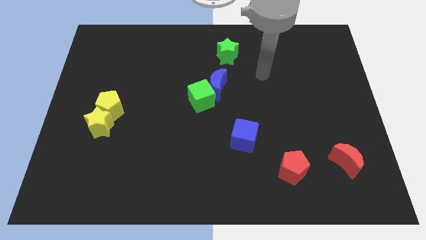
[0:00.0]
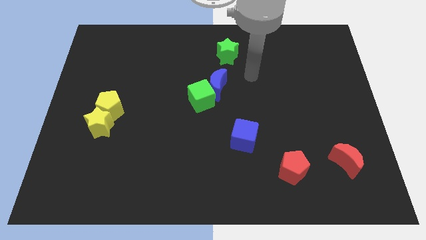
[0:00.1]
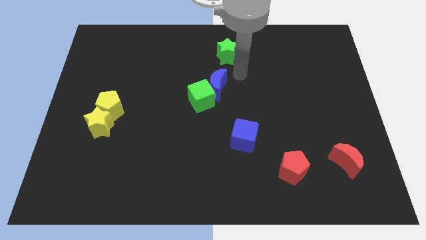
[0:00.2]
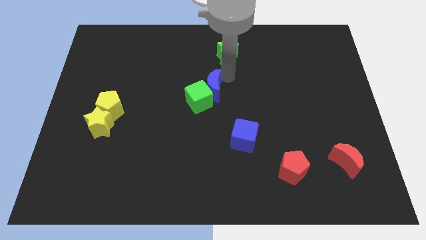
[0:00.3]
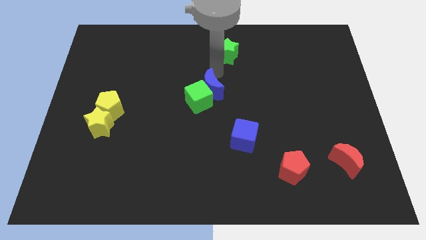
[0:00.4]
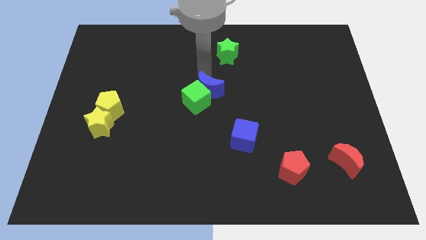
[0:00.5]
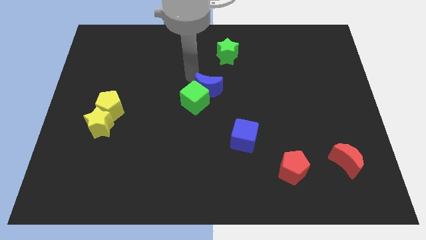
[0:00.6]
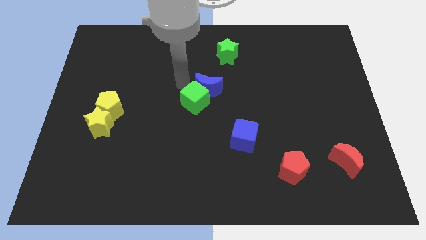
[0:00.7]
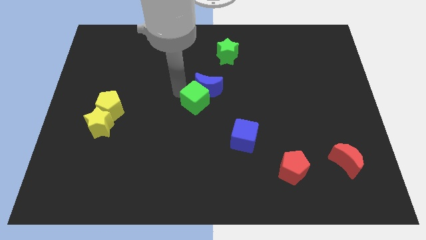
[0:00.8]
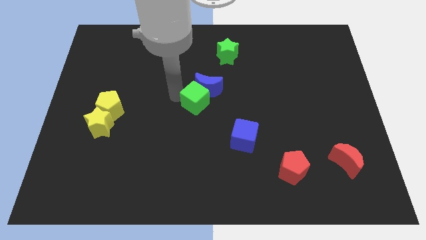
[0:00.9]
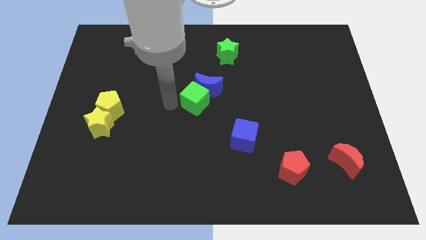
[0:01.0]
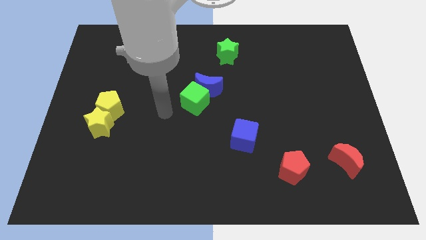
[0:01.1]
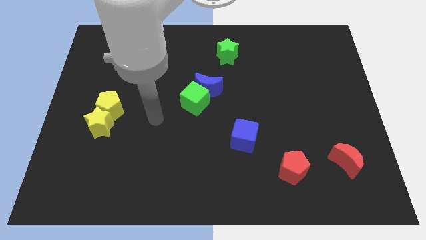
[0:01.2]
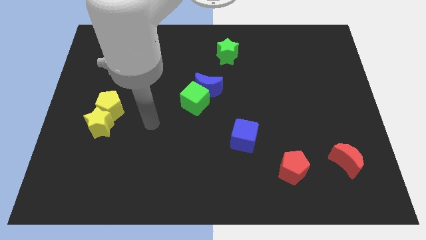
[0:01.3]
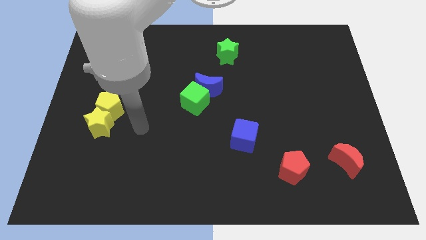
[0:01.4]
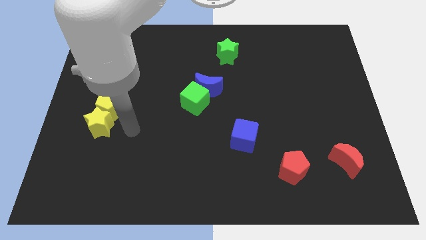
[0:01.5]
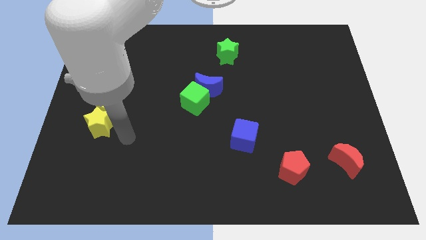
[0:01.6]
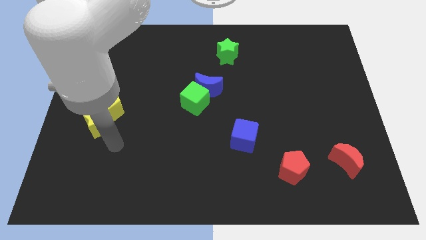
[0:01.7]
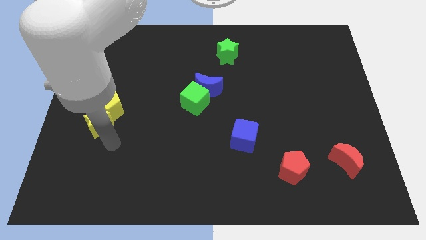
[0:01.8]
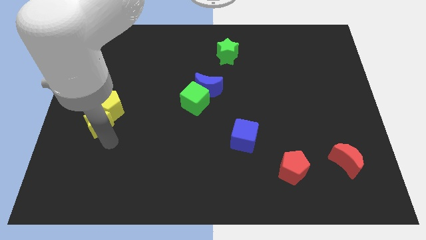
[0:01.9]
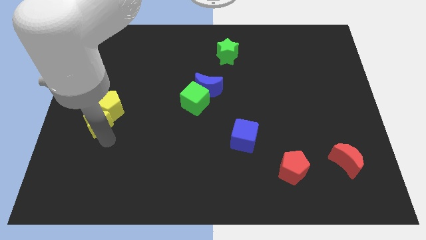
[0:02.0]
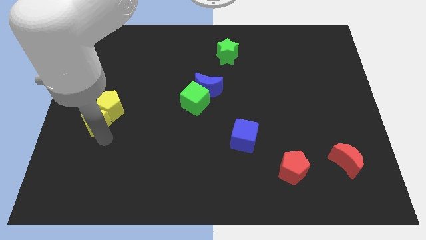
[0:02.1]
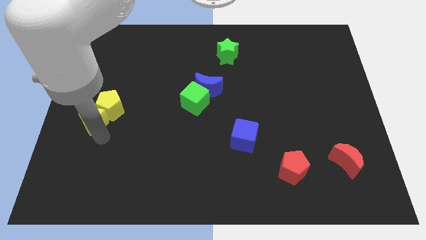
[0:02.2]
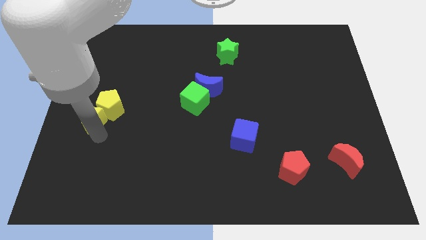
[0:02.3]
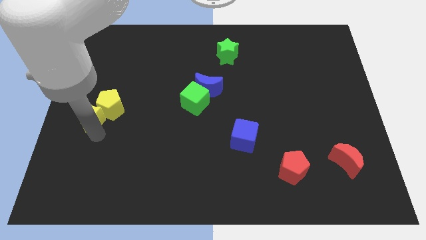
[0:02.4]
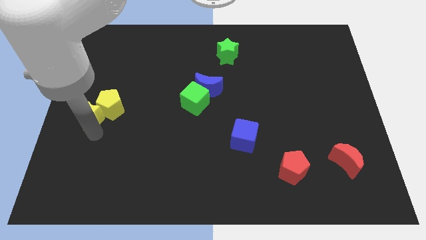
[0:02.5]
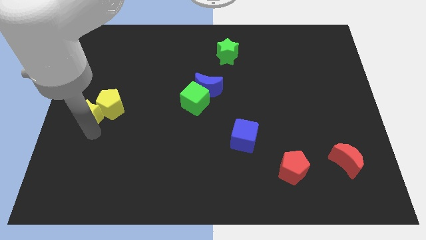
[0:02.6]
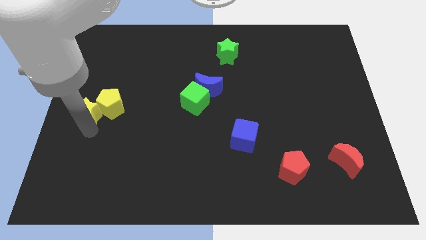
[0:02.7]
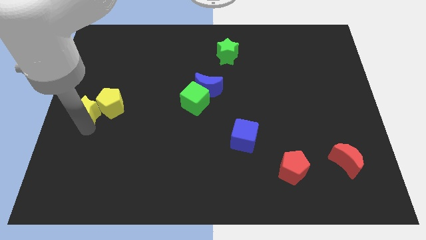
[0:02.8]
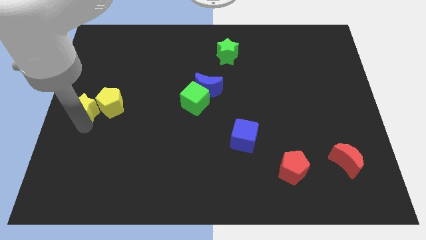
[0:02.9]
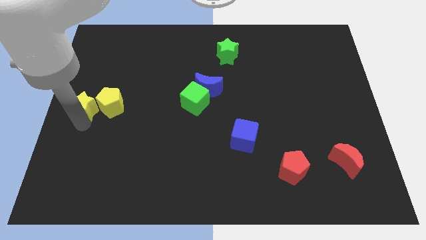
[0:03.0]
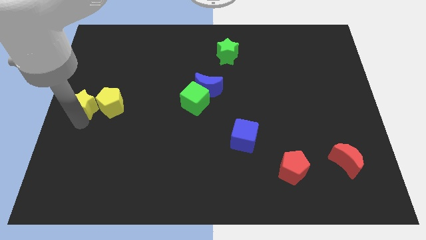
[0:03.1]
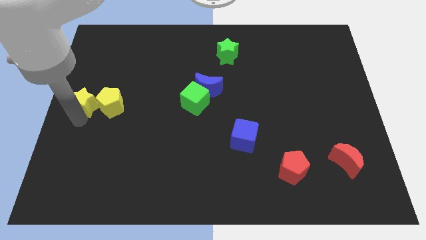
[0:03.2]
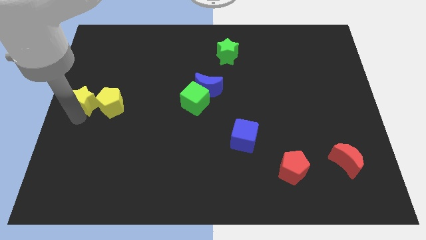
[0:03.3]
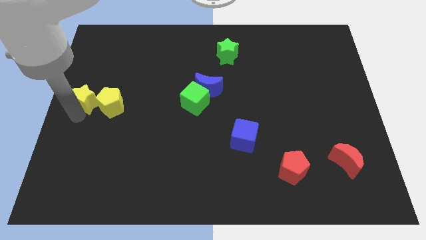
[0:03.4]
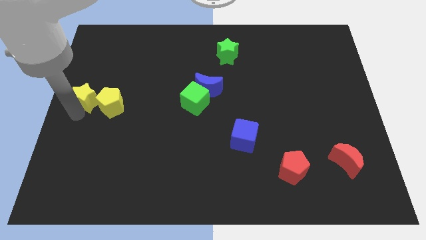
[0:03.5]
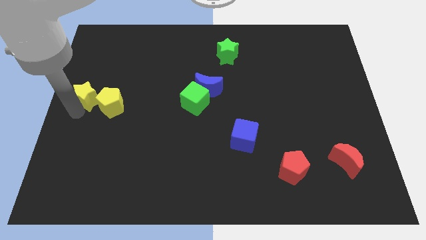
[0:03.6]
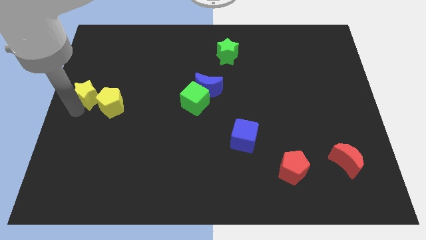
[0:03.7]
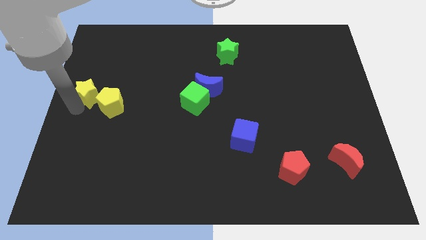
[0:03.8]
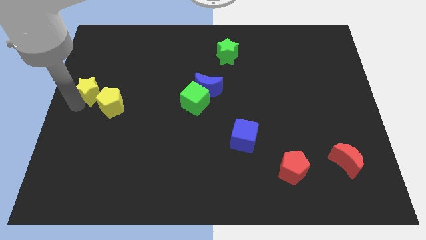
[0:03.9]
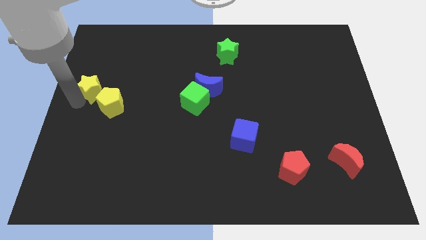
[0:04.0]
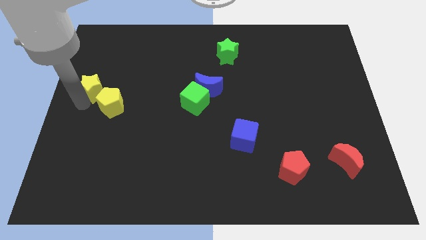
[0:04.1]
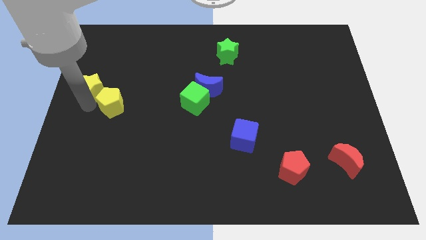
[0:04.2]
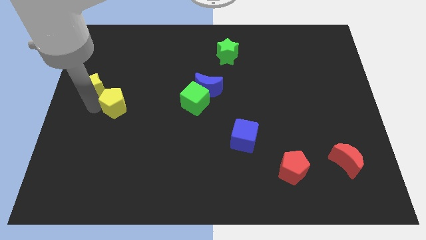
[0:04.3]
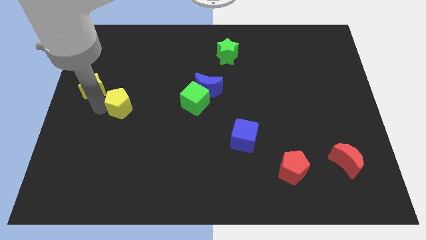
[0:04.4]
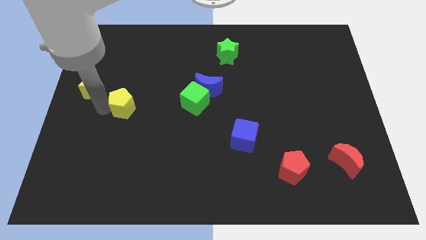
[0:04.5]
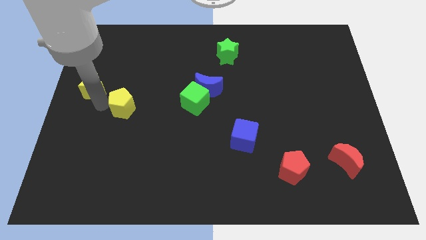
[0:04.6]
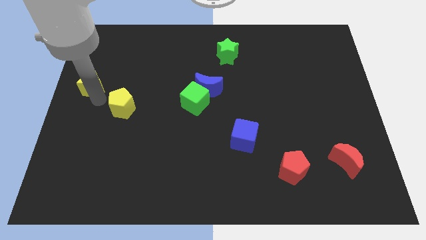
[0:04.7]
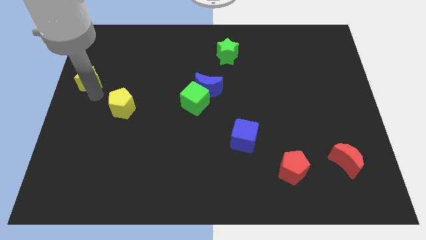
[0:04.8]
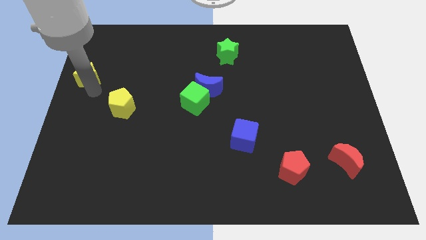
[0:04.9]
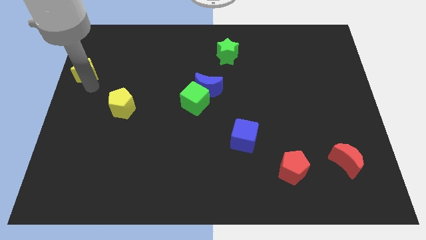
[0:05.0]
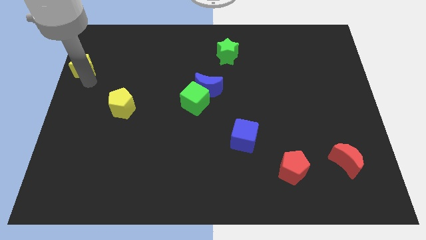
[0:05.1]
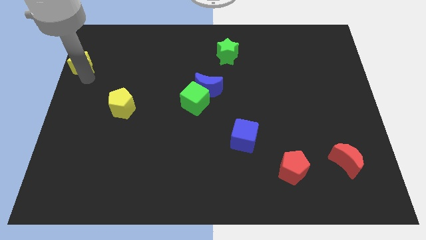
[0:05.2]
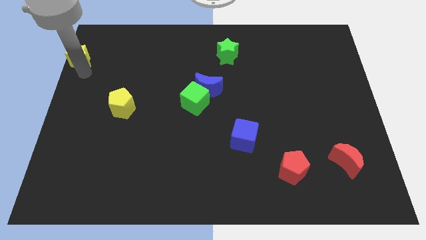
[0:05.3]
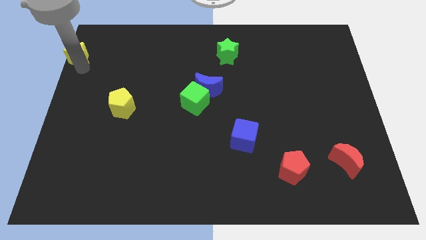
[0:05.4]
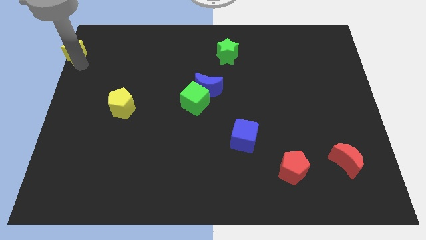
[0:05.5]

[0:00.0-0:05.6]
push the yellow star to the upper left corner
